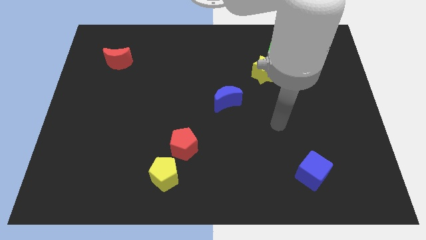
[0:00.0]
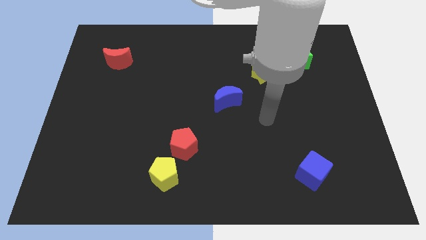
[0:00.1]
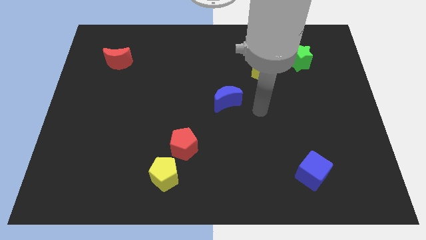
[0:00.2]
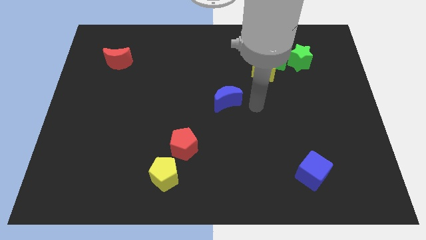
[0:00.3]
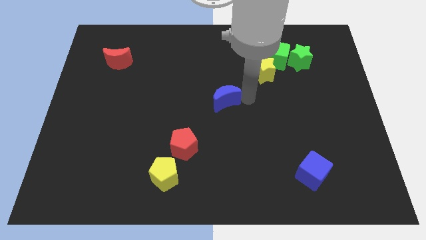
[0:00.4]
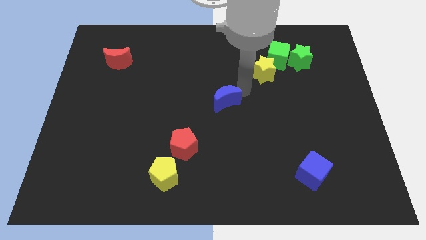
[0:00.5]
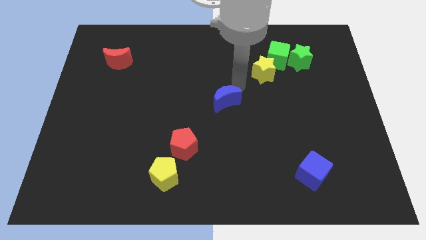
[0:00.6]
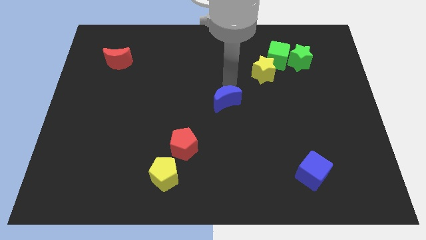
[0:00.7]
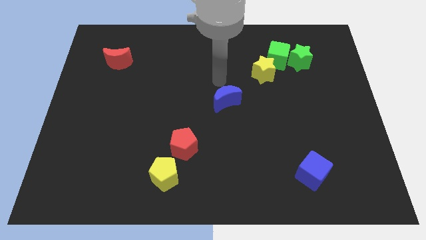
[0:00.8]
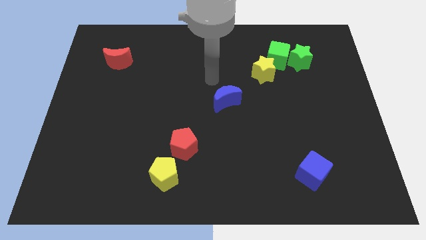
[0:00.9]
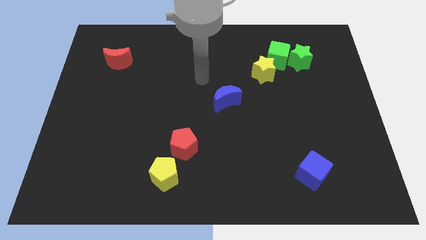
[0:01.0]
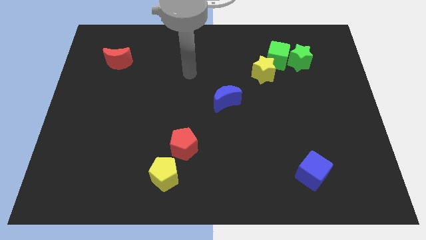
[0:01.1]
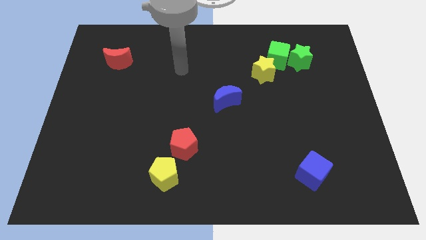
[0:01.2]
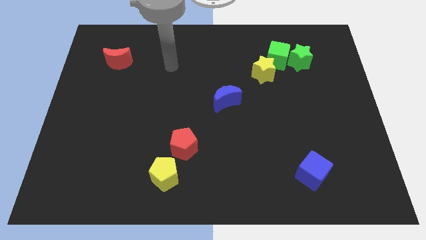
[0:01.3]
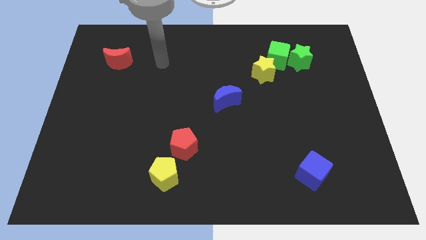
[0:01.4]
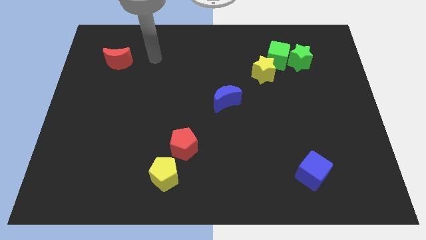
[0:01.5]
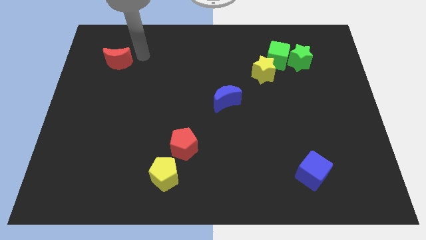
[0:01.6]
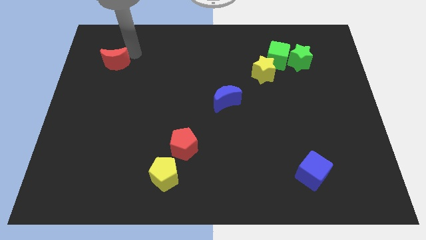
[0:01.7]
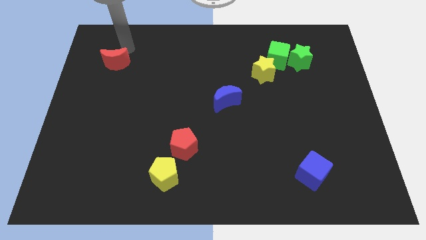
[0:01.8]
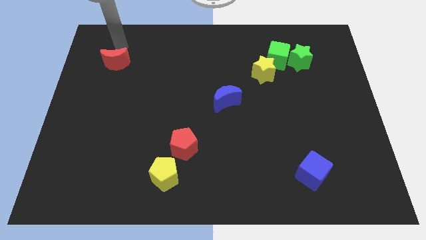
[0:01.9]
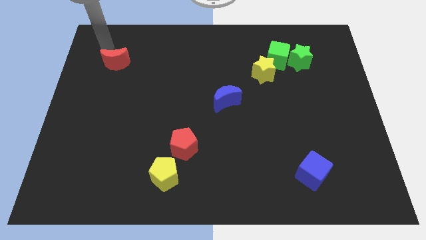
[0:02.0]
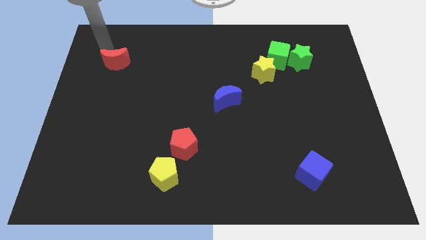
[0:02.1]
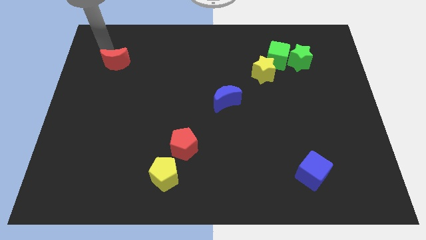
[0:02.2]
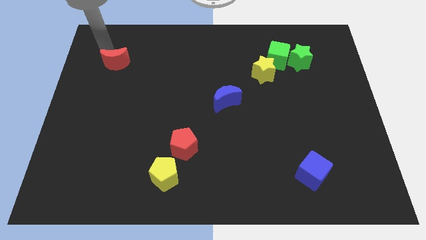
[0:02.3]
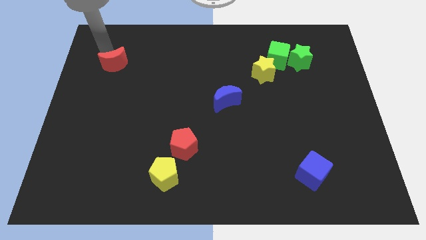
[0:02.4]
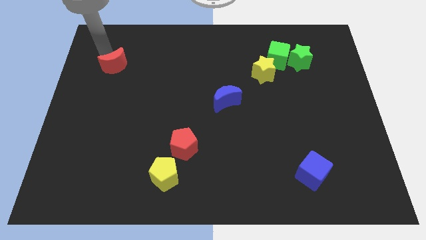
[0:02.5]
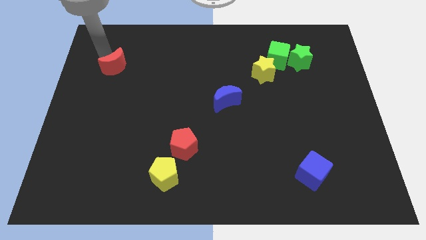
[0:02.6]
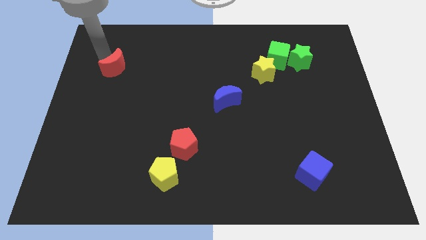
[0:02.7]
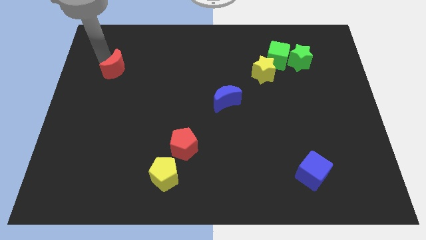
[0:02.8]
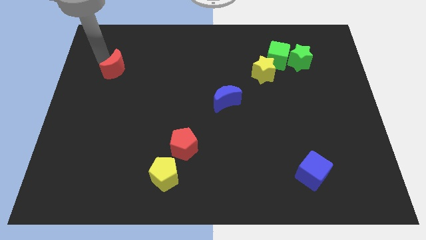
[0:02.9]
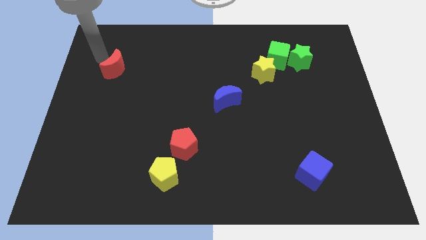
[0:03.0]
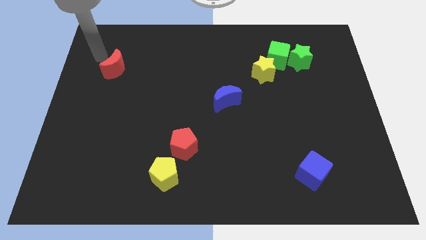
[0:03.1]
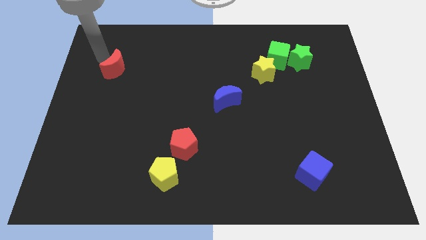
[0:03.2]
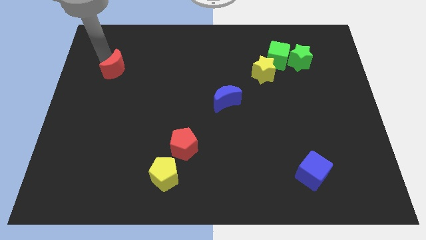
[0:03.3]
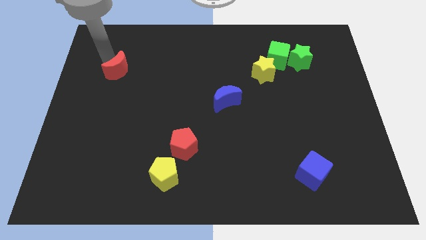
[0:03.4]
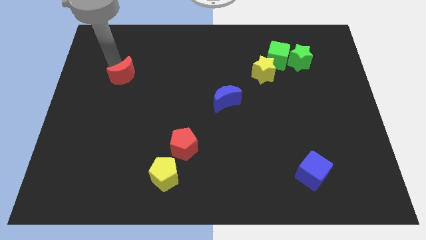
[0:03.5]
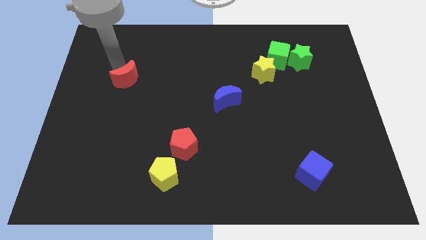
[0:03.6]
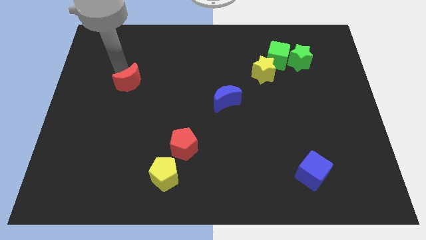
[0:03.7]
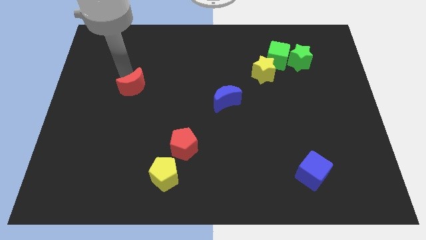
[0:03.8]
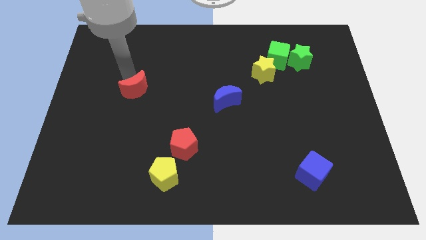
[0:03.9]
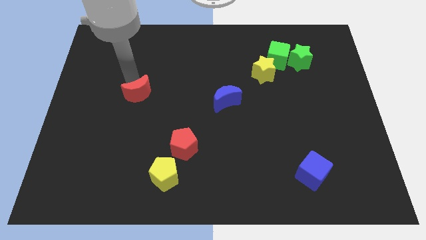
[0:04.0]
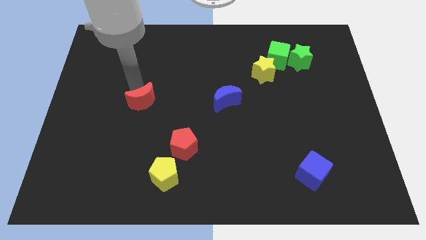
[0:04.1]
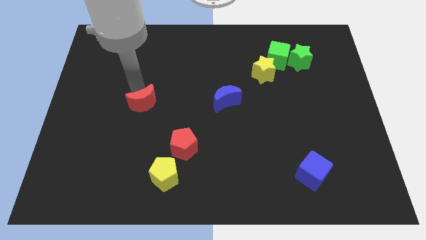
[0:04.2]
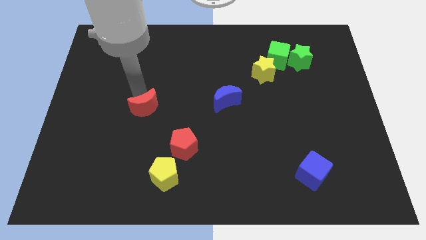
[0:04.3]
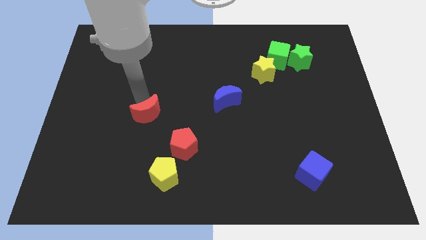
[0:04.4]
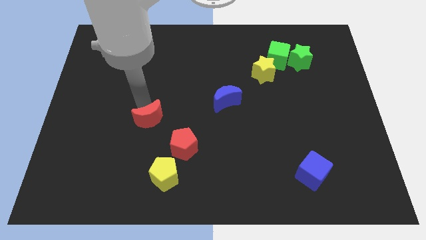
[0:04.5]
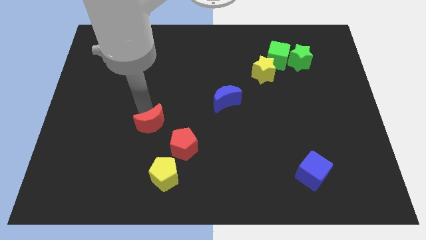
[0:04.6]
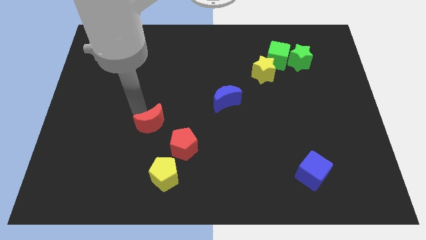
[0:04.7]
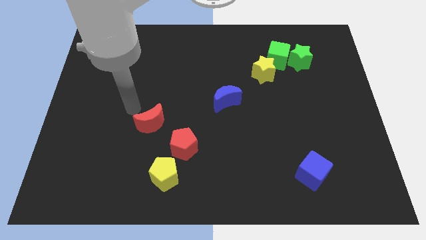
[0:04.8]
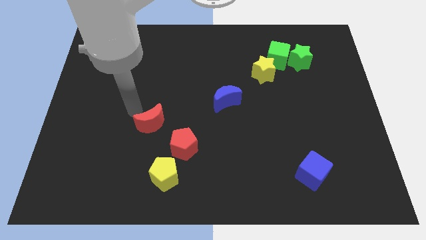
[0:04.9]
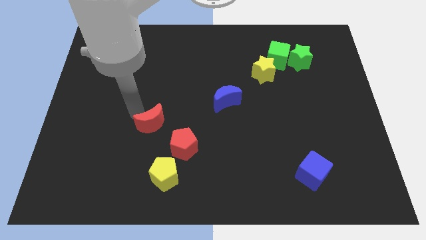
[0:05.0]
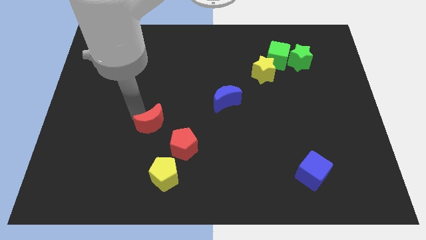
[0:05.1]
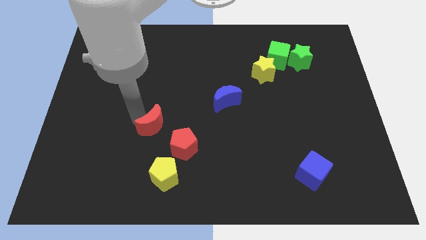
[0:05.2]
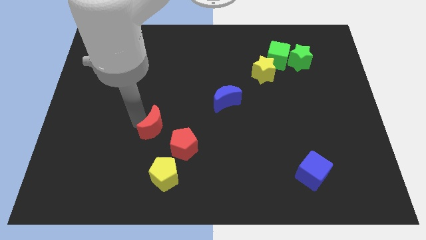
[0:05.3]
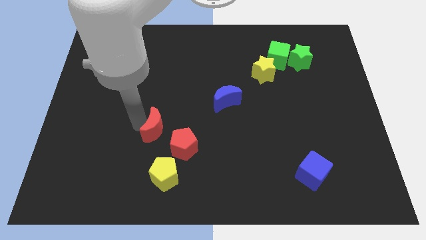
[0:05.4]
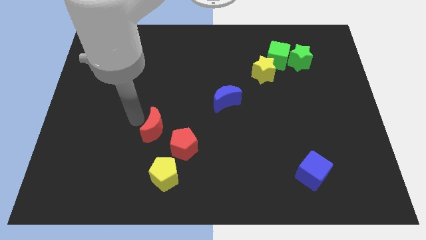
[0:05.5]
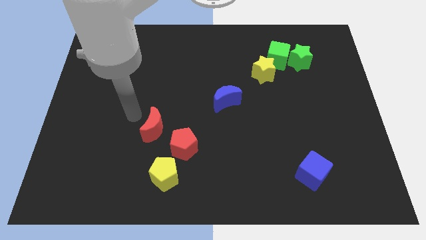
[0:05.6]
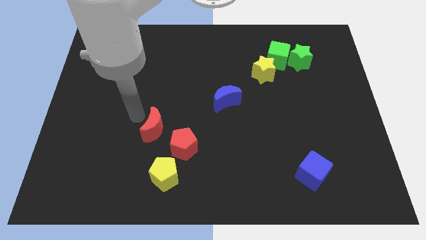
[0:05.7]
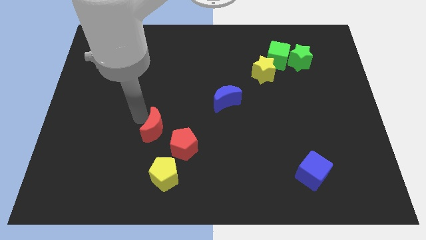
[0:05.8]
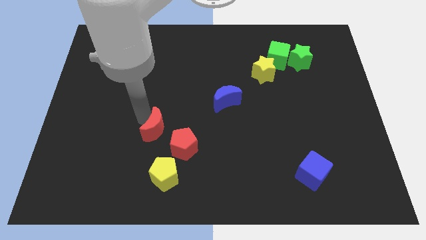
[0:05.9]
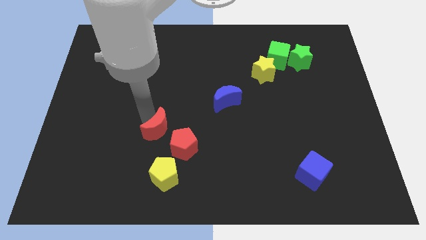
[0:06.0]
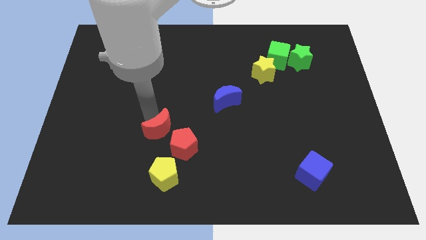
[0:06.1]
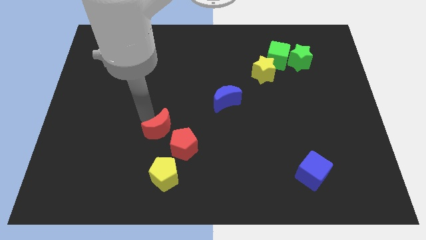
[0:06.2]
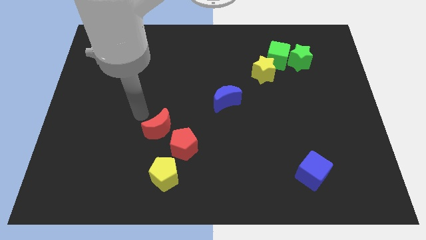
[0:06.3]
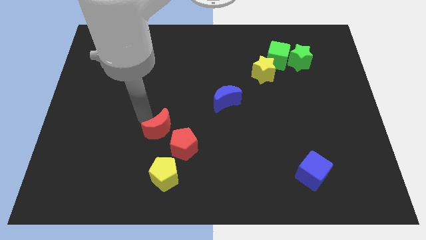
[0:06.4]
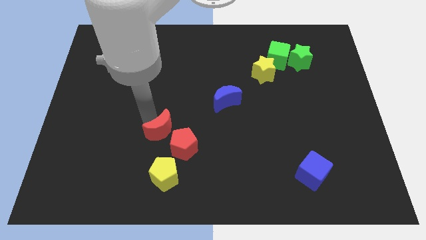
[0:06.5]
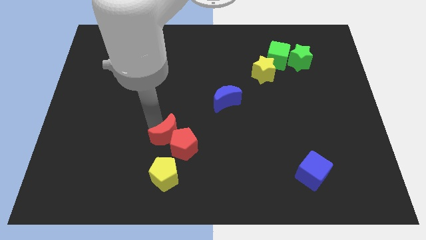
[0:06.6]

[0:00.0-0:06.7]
move the red moon to the red pentagon

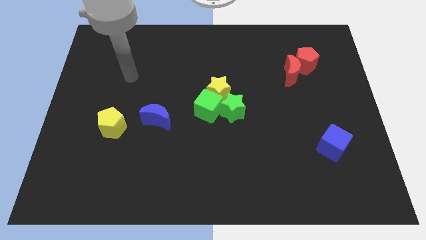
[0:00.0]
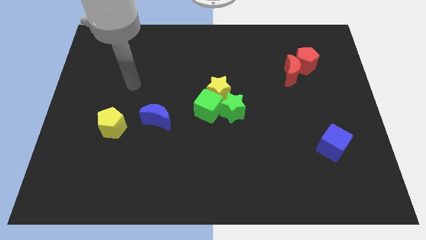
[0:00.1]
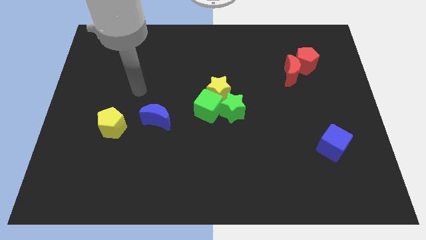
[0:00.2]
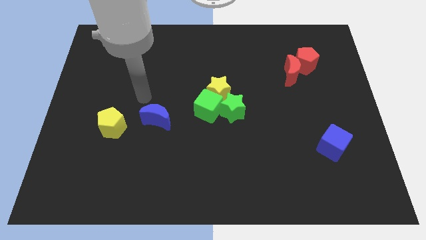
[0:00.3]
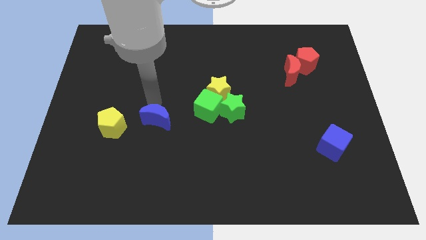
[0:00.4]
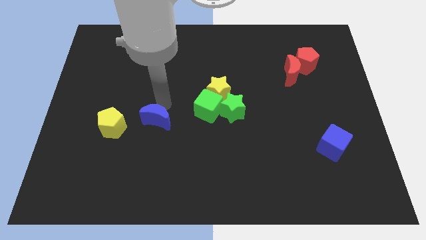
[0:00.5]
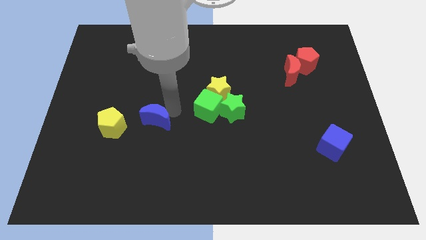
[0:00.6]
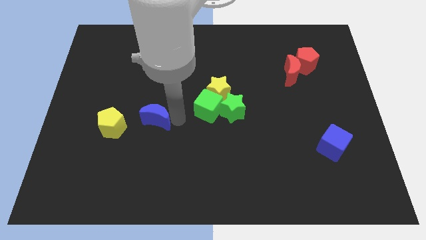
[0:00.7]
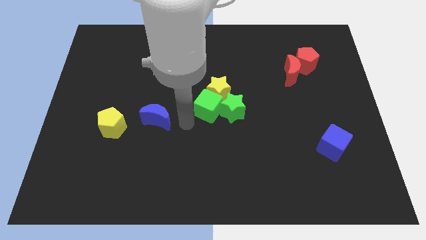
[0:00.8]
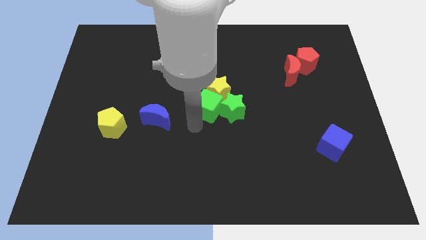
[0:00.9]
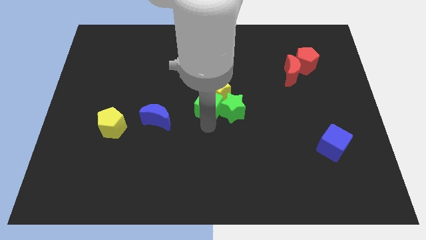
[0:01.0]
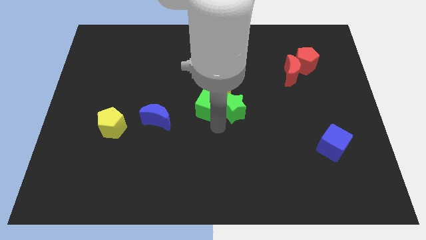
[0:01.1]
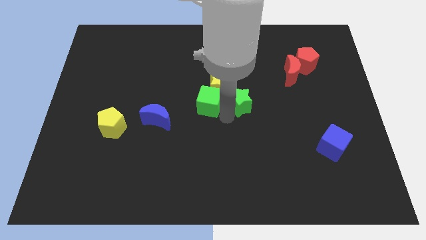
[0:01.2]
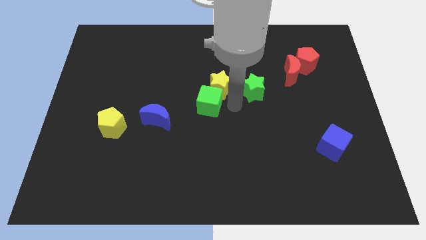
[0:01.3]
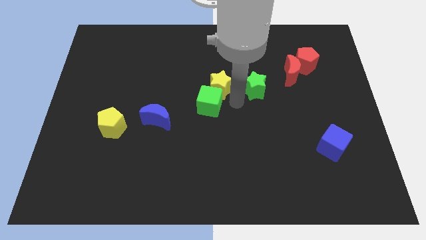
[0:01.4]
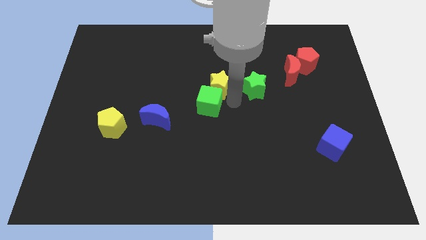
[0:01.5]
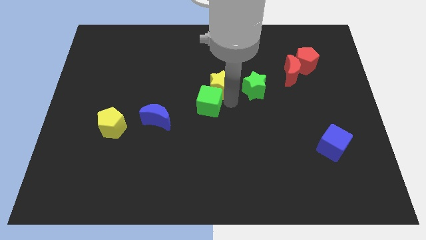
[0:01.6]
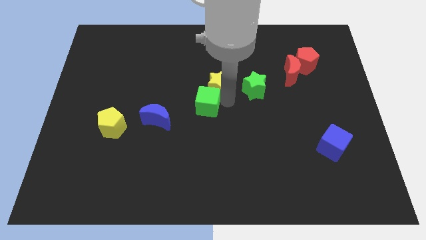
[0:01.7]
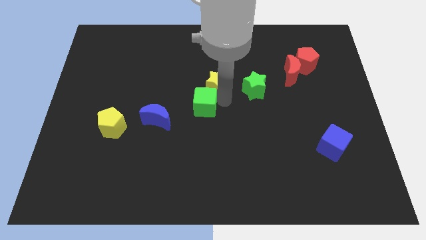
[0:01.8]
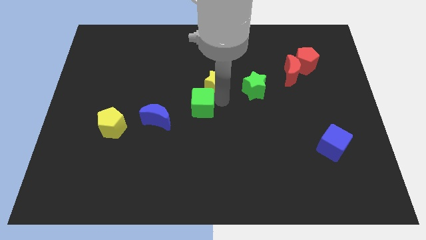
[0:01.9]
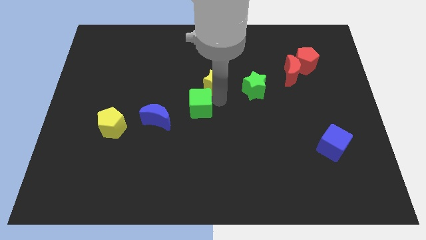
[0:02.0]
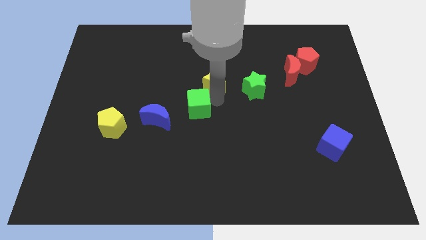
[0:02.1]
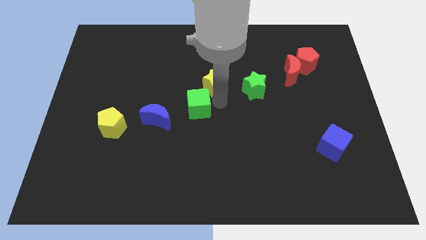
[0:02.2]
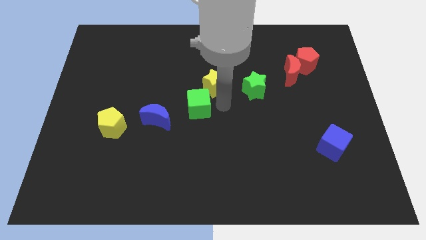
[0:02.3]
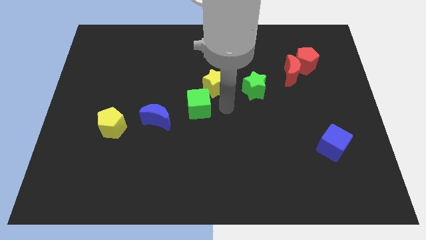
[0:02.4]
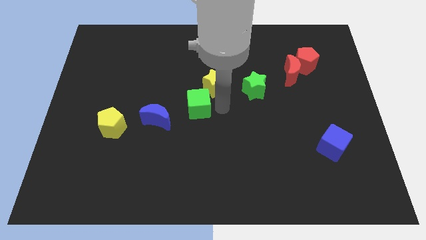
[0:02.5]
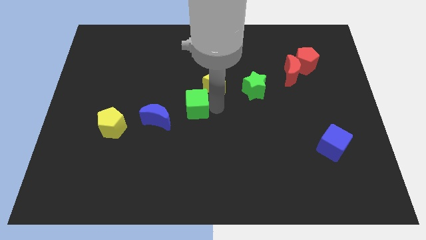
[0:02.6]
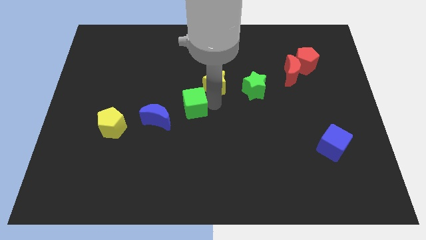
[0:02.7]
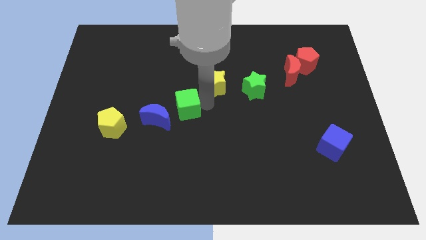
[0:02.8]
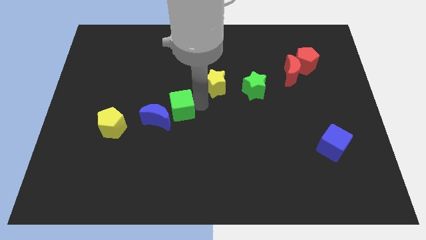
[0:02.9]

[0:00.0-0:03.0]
move the green cube next to the blue moon
